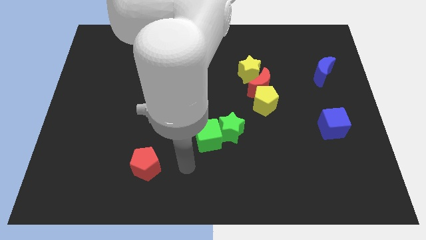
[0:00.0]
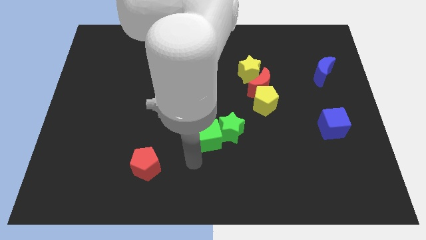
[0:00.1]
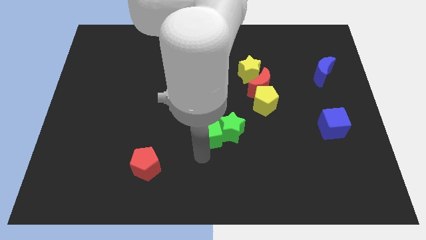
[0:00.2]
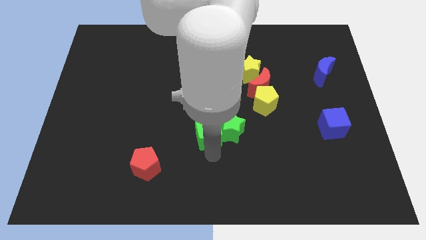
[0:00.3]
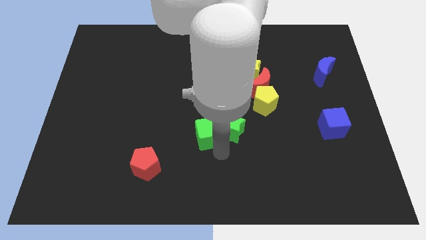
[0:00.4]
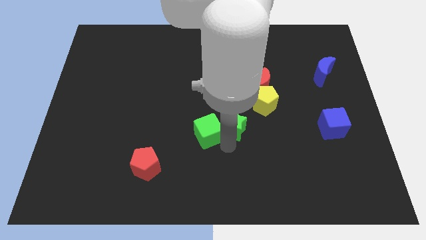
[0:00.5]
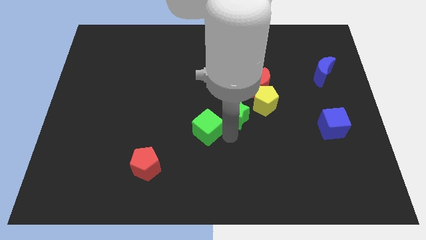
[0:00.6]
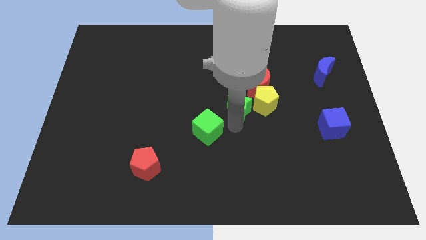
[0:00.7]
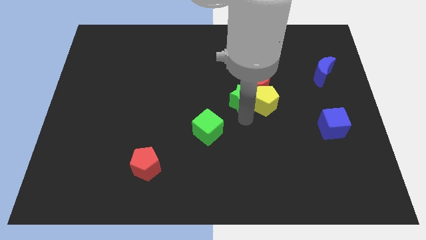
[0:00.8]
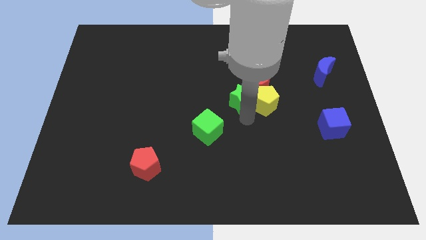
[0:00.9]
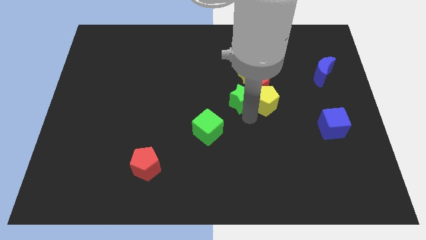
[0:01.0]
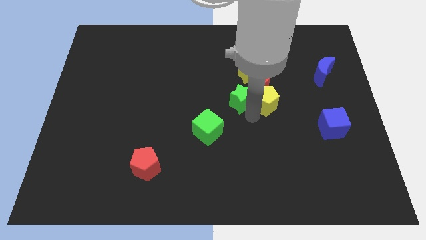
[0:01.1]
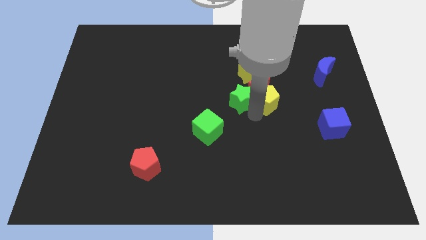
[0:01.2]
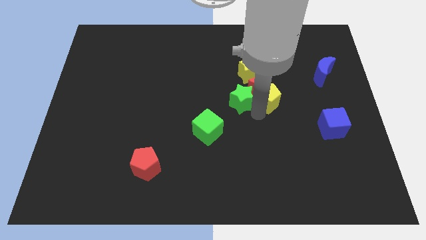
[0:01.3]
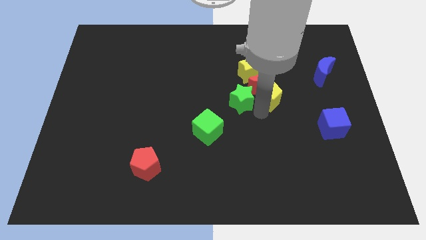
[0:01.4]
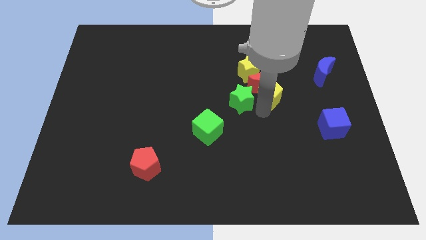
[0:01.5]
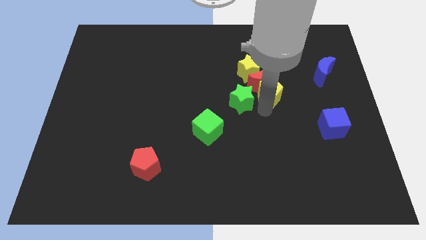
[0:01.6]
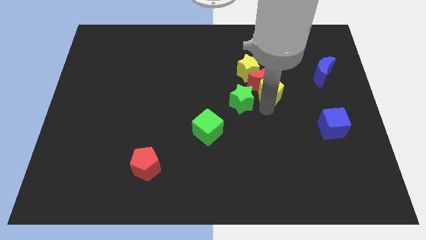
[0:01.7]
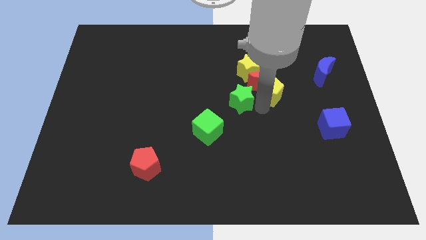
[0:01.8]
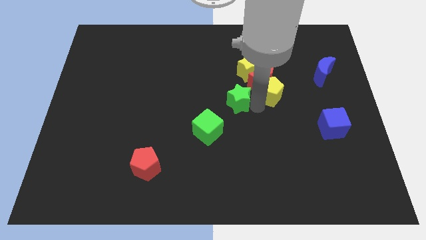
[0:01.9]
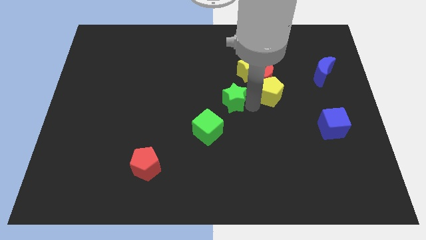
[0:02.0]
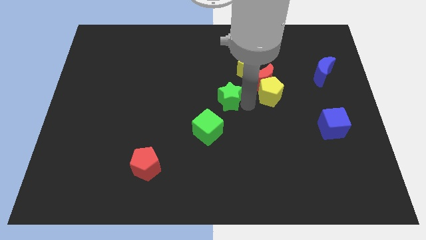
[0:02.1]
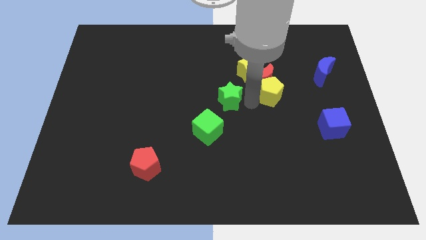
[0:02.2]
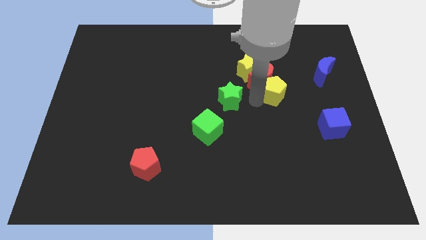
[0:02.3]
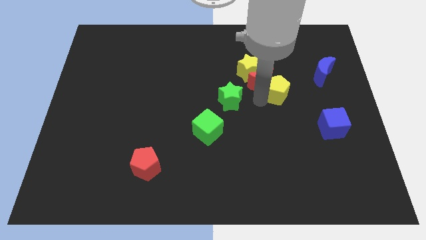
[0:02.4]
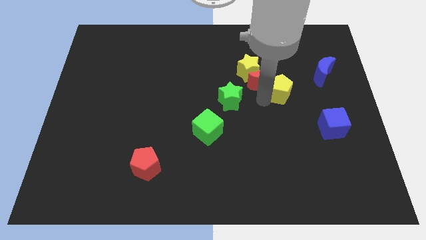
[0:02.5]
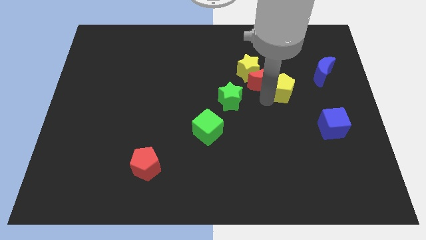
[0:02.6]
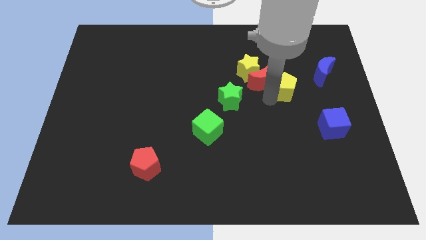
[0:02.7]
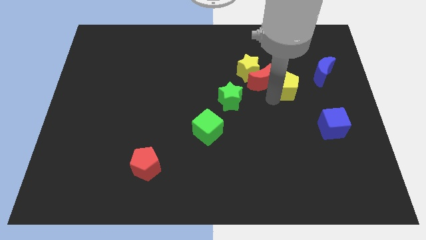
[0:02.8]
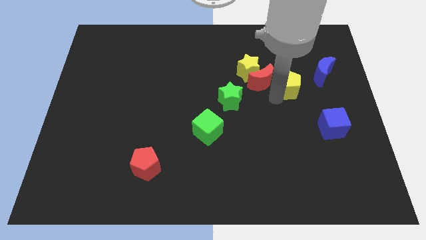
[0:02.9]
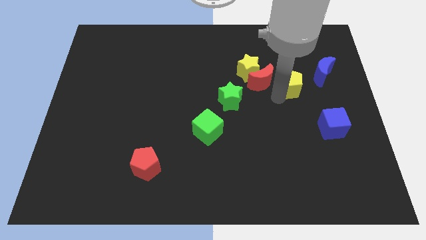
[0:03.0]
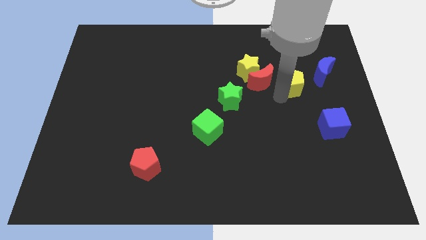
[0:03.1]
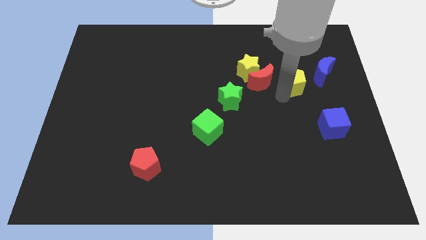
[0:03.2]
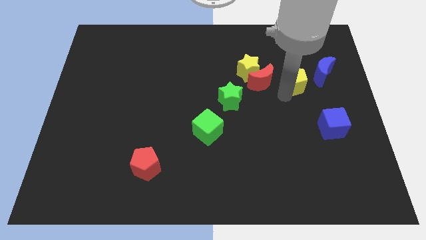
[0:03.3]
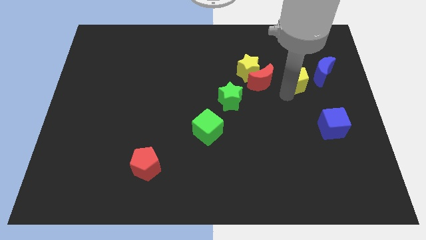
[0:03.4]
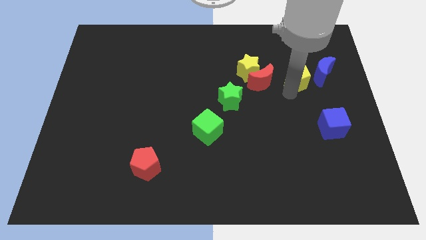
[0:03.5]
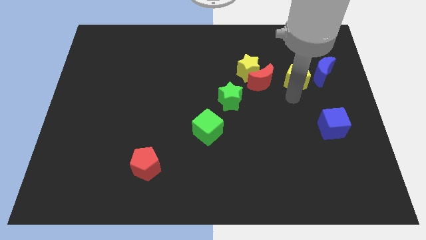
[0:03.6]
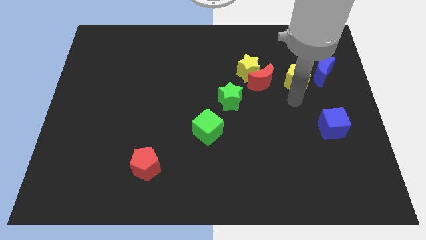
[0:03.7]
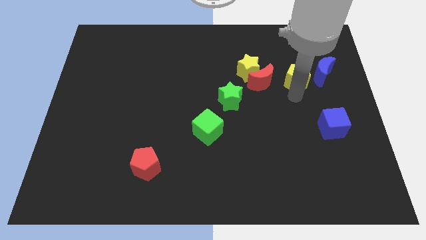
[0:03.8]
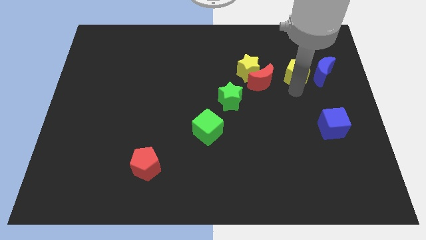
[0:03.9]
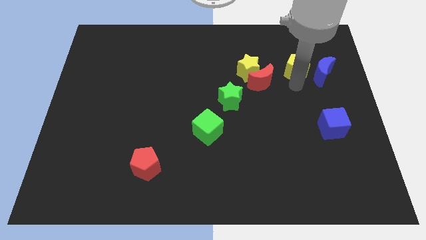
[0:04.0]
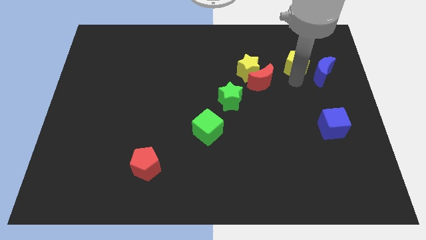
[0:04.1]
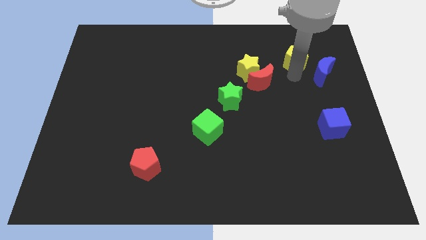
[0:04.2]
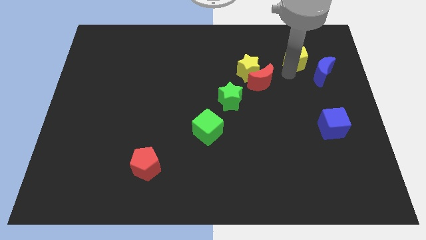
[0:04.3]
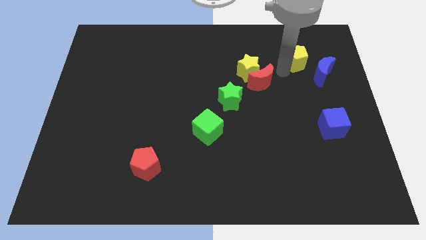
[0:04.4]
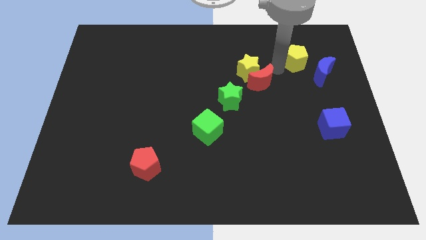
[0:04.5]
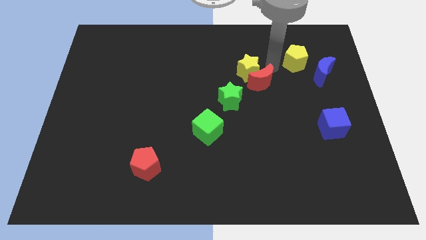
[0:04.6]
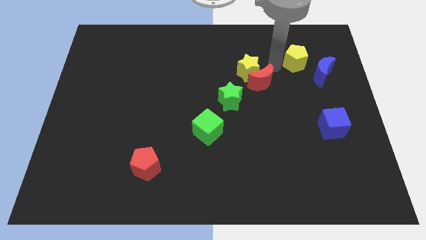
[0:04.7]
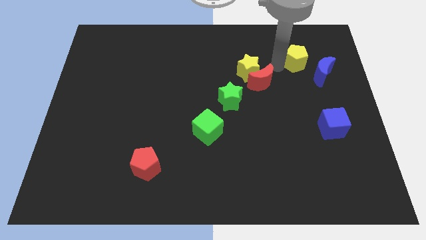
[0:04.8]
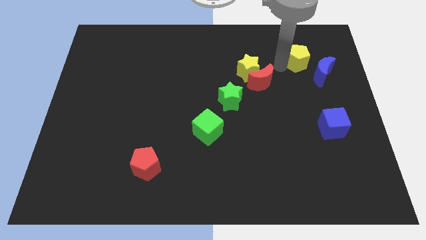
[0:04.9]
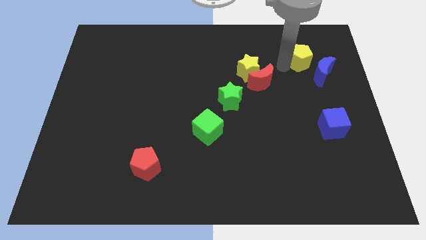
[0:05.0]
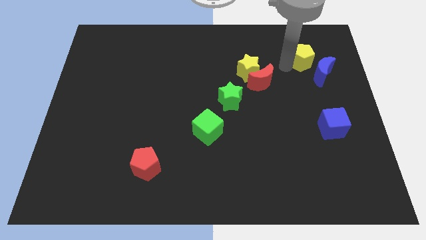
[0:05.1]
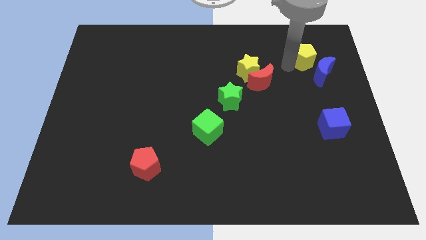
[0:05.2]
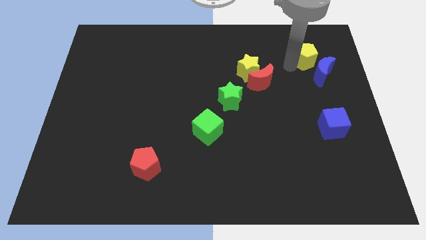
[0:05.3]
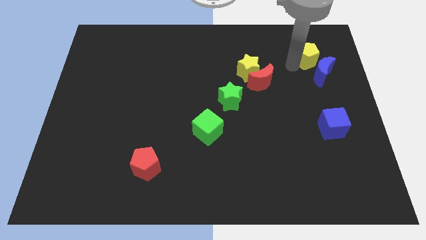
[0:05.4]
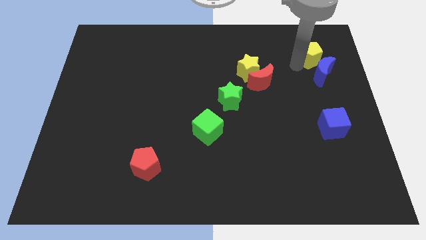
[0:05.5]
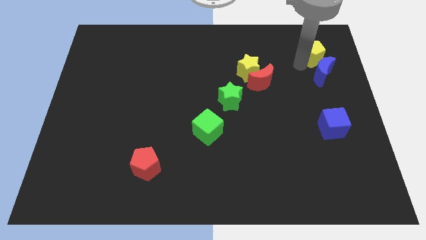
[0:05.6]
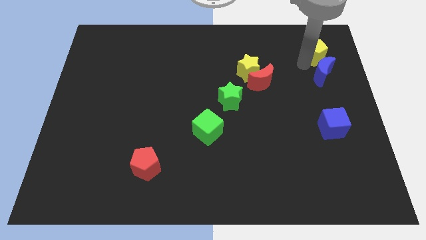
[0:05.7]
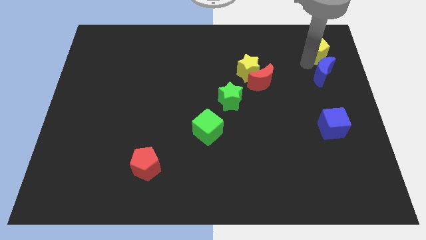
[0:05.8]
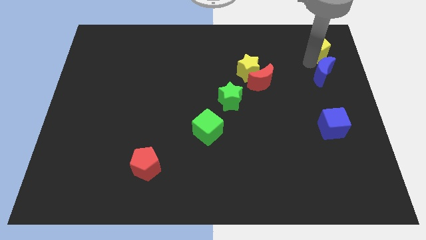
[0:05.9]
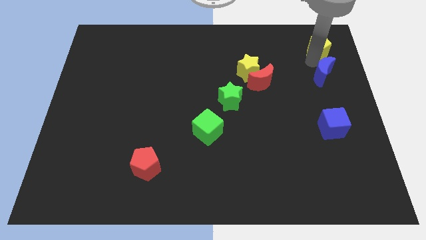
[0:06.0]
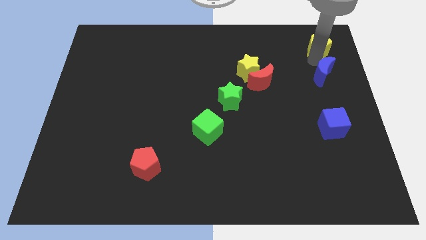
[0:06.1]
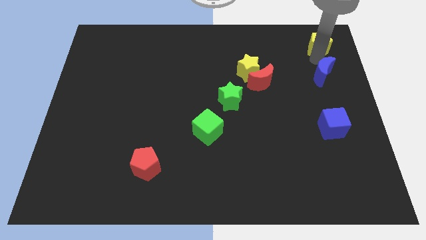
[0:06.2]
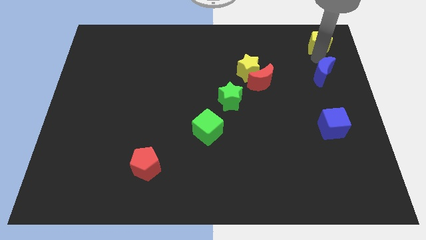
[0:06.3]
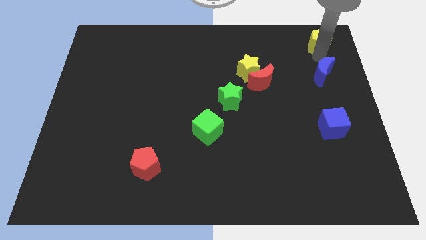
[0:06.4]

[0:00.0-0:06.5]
push the yellow pentagon to the upper right corner
